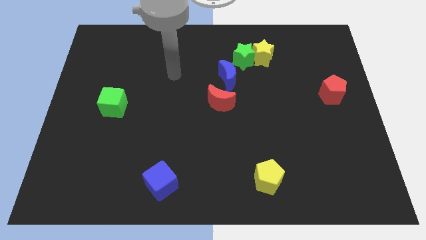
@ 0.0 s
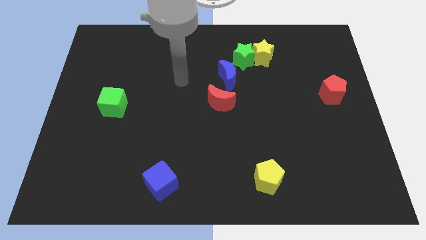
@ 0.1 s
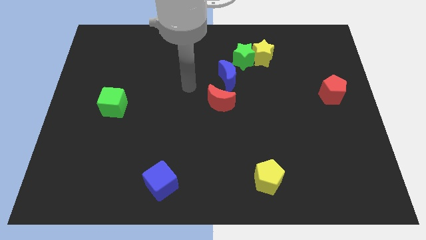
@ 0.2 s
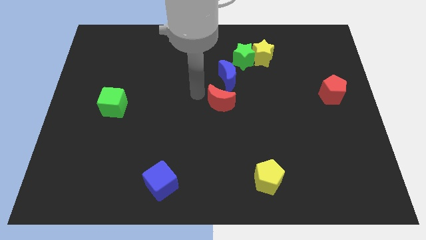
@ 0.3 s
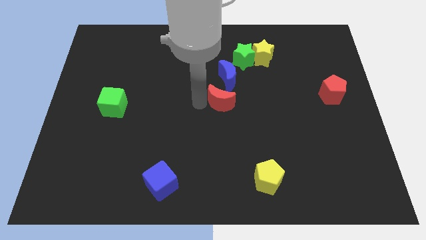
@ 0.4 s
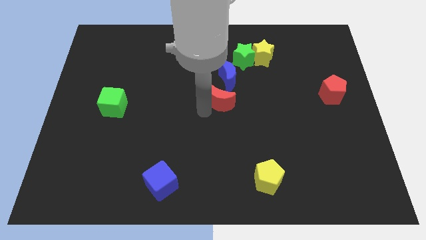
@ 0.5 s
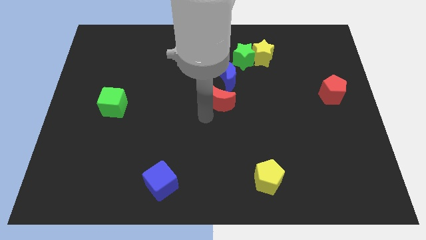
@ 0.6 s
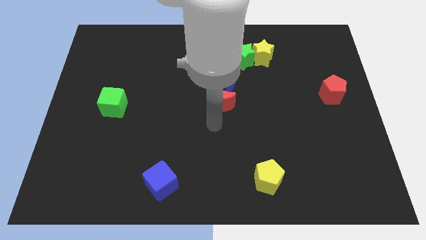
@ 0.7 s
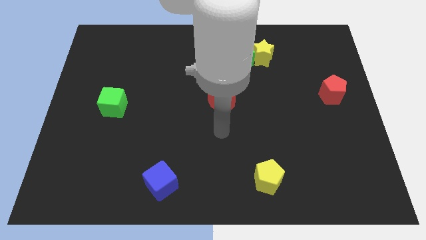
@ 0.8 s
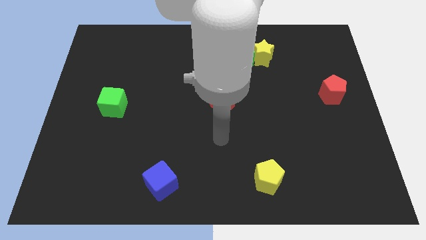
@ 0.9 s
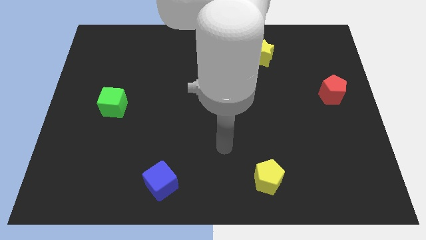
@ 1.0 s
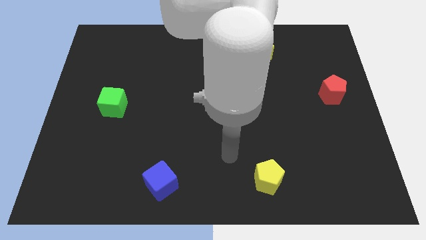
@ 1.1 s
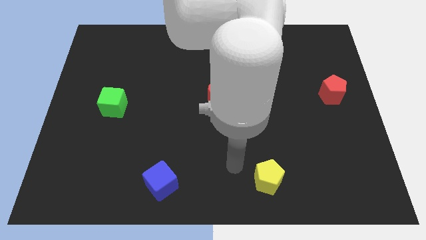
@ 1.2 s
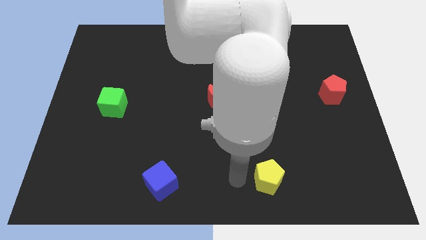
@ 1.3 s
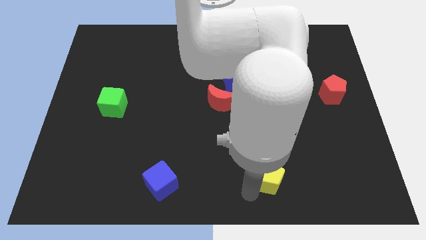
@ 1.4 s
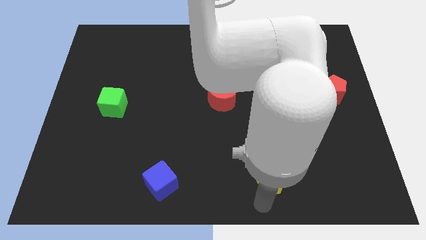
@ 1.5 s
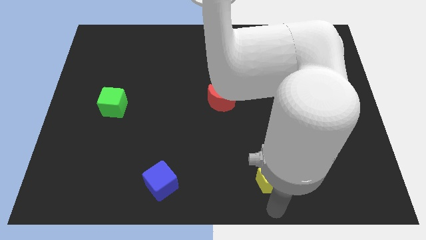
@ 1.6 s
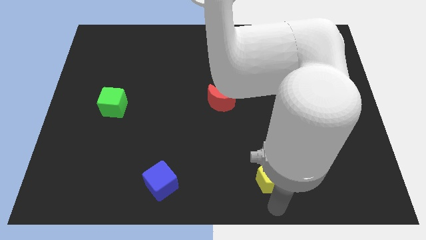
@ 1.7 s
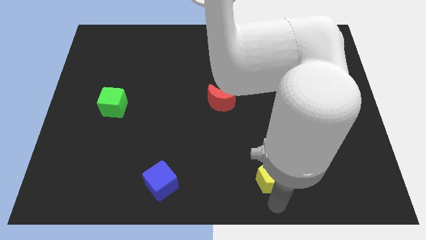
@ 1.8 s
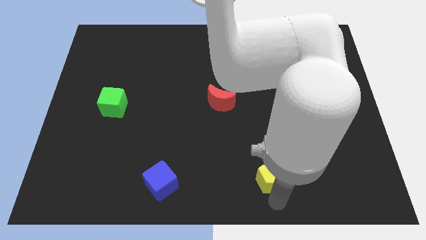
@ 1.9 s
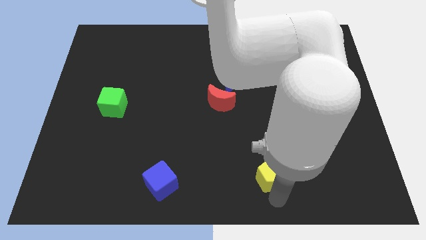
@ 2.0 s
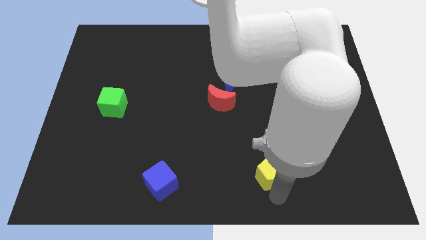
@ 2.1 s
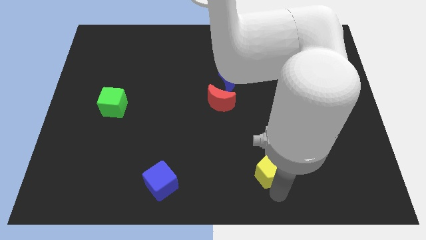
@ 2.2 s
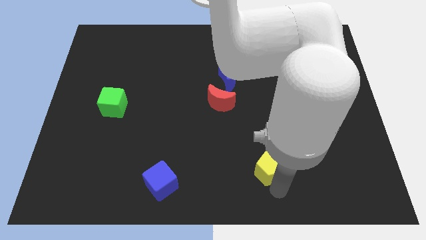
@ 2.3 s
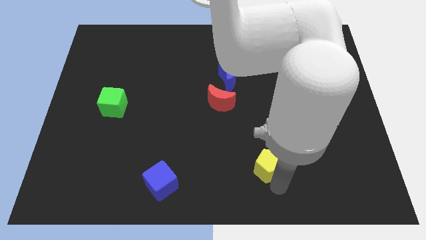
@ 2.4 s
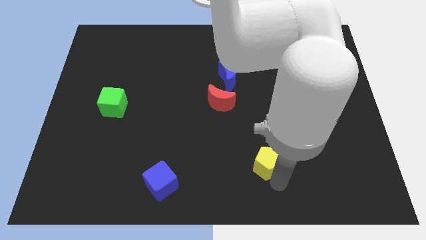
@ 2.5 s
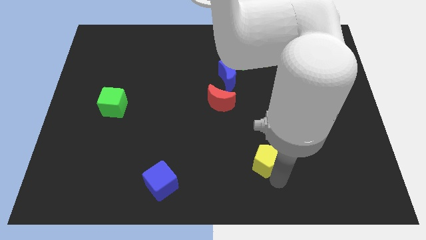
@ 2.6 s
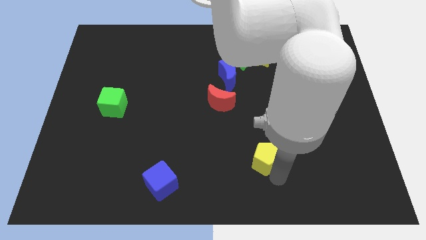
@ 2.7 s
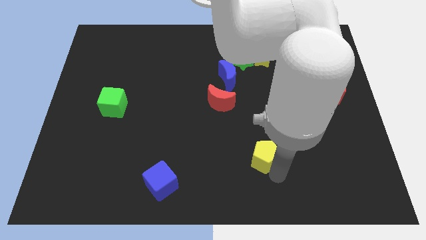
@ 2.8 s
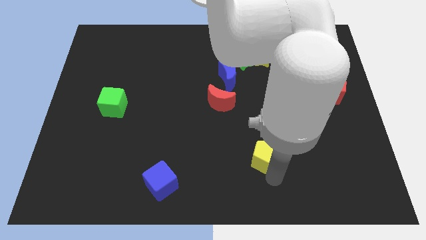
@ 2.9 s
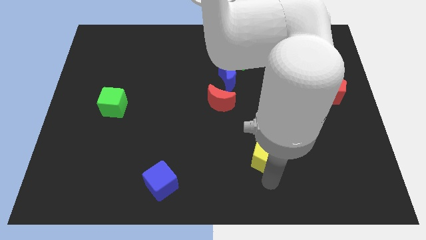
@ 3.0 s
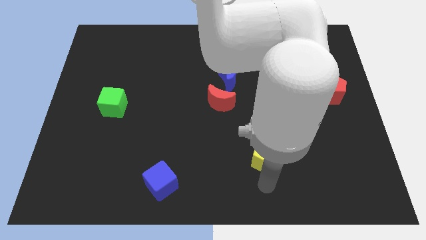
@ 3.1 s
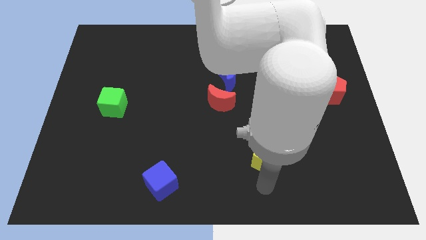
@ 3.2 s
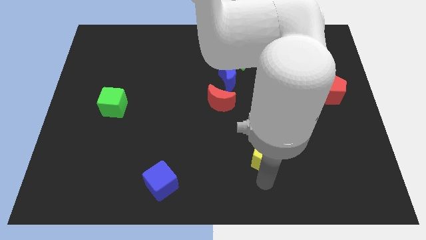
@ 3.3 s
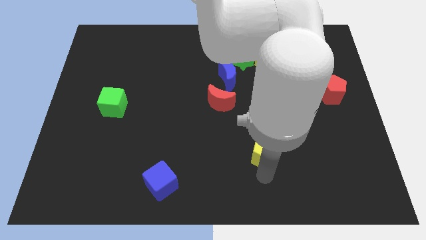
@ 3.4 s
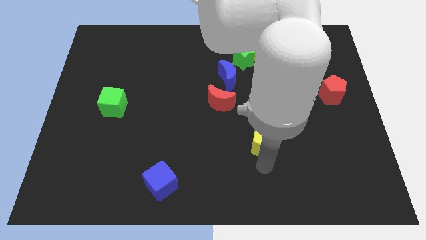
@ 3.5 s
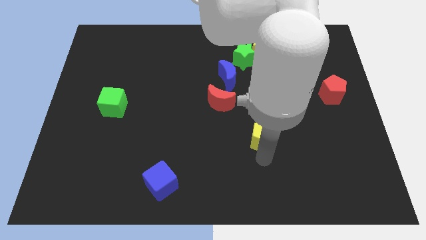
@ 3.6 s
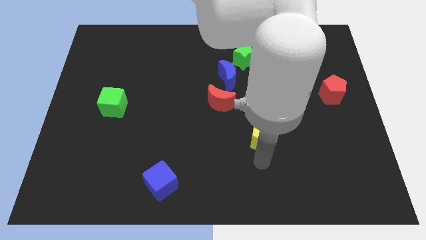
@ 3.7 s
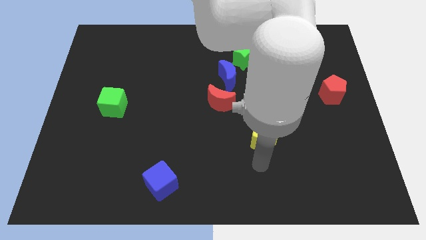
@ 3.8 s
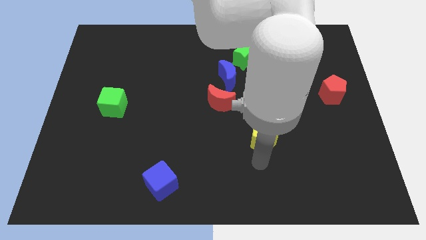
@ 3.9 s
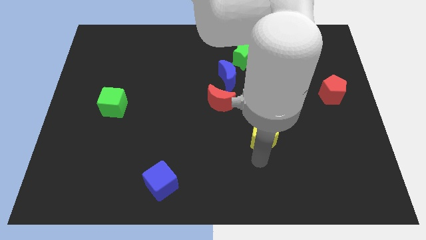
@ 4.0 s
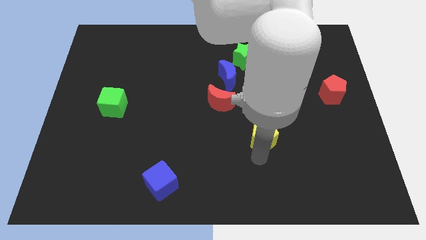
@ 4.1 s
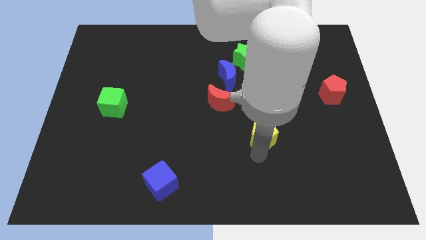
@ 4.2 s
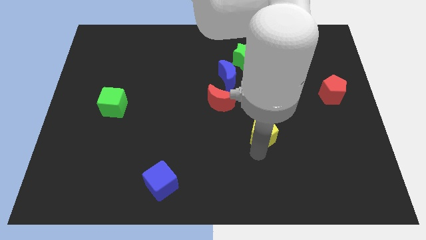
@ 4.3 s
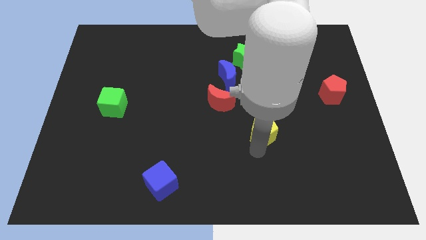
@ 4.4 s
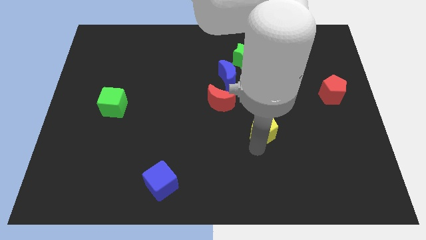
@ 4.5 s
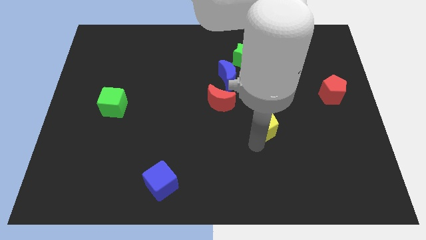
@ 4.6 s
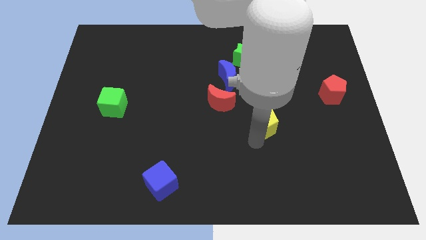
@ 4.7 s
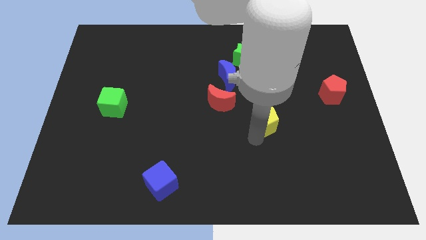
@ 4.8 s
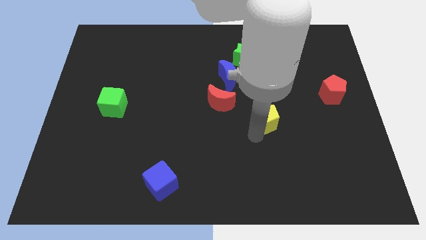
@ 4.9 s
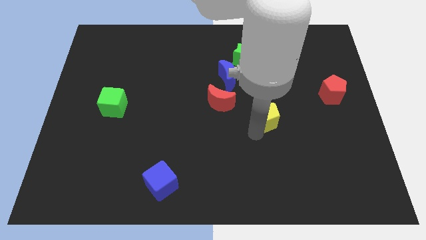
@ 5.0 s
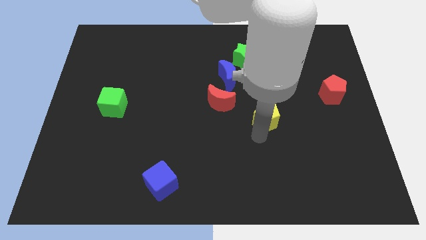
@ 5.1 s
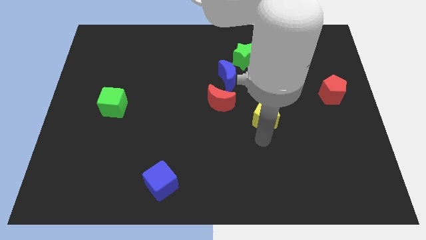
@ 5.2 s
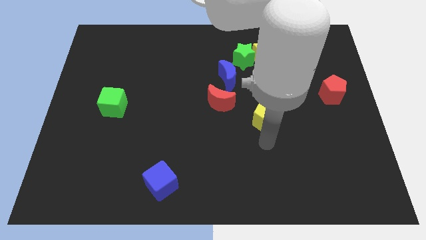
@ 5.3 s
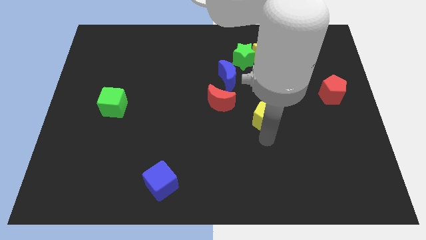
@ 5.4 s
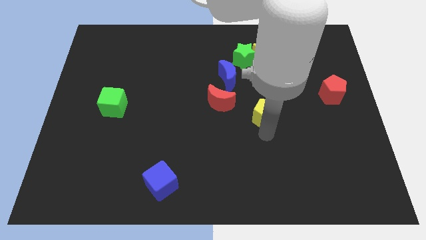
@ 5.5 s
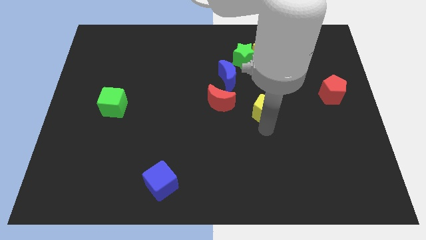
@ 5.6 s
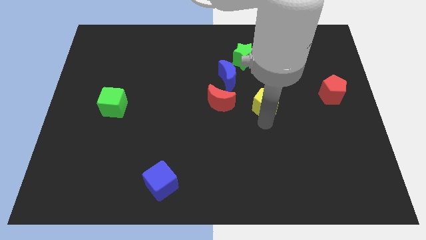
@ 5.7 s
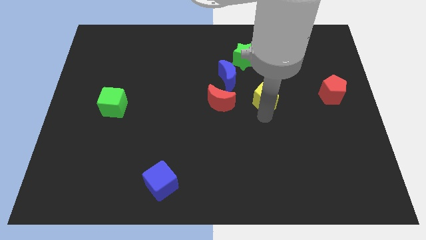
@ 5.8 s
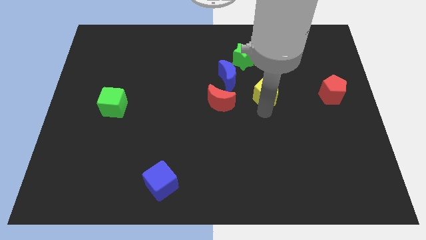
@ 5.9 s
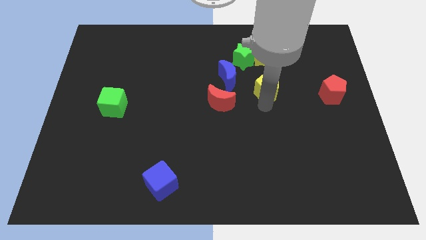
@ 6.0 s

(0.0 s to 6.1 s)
slide the yellow pentagon diagonally down and to the right of the green star

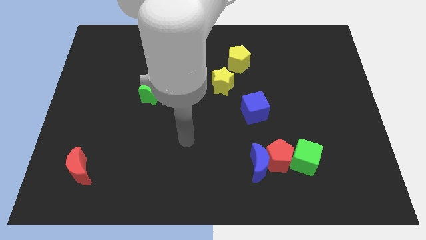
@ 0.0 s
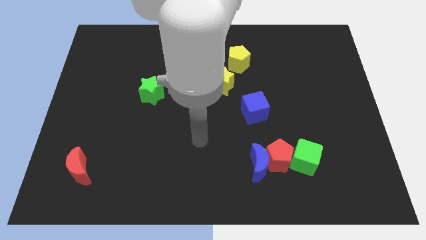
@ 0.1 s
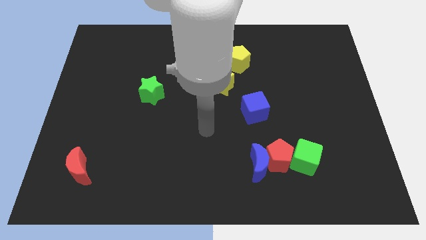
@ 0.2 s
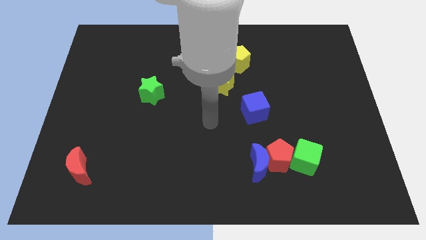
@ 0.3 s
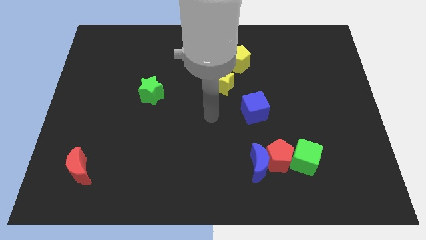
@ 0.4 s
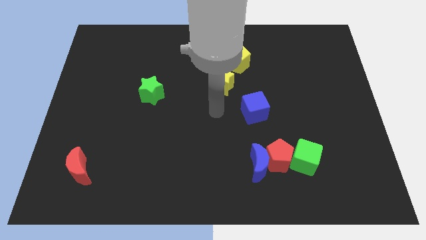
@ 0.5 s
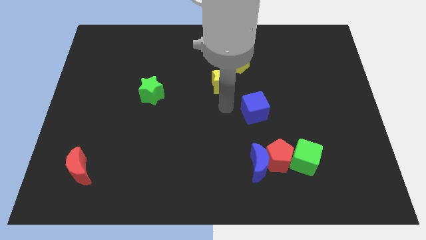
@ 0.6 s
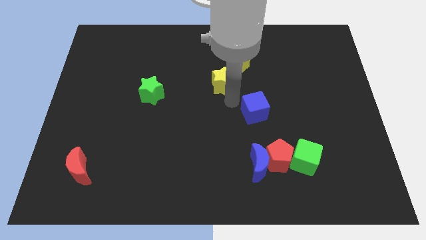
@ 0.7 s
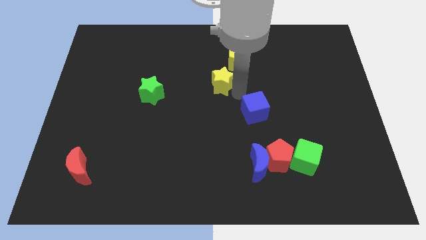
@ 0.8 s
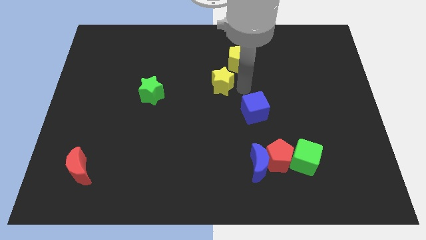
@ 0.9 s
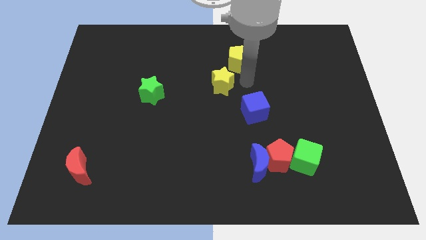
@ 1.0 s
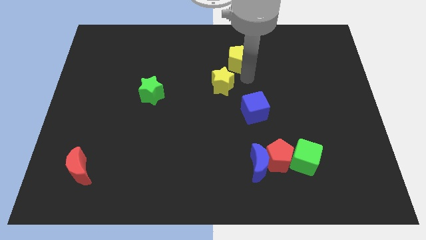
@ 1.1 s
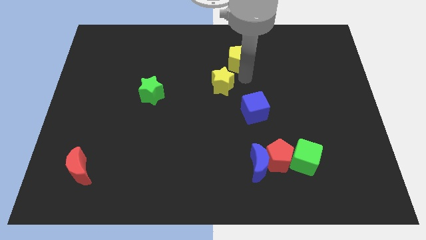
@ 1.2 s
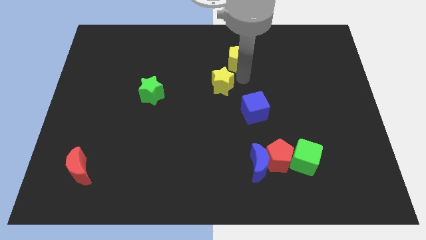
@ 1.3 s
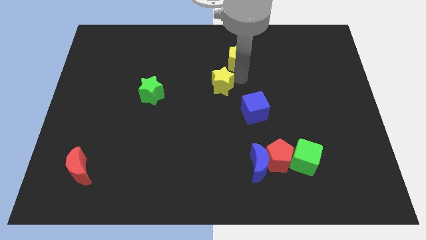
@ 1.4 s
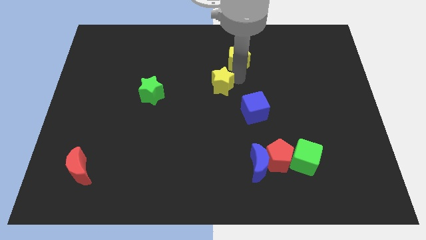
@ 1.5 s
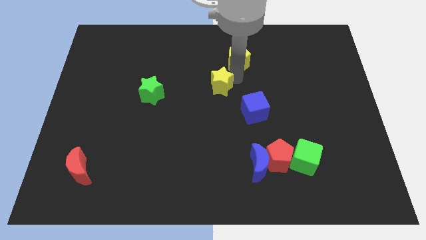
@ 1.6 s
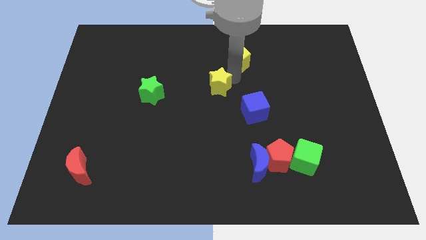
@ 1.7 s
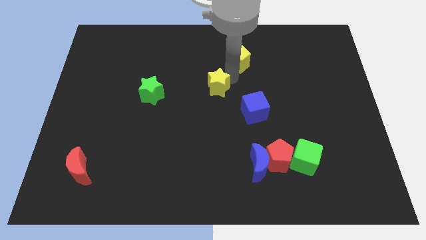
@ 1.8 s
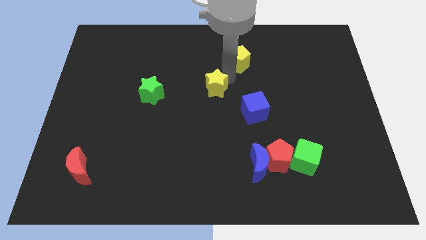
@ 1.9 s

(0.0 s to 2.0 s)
put the yellow star to the right side of the green star
